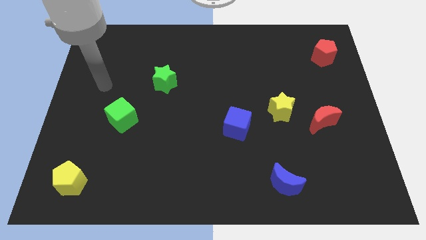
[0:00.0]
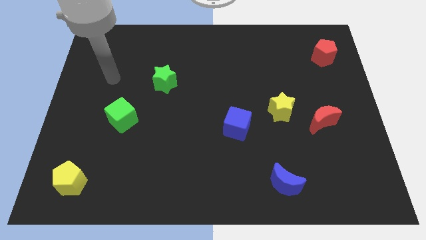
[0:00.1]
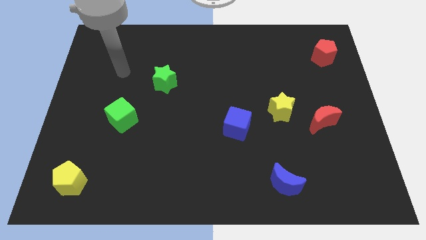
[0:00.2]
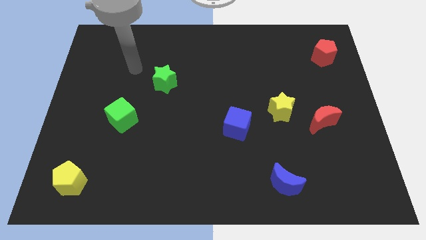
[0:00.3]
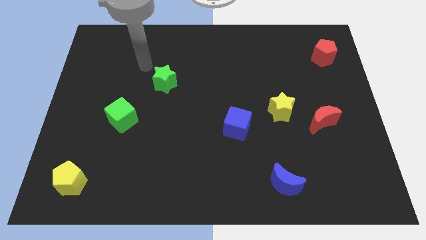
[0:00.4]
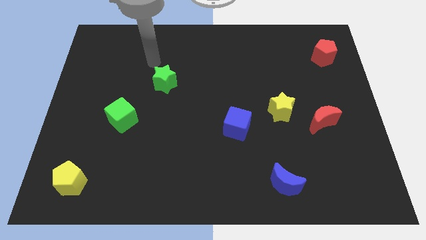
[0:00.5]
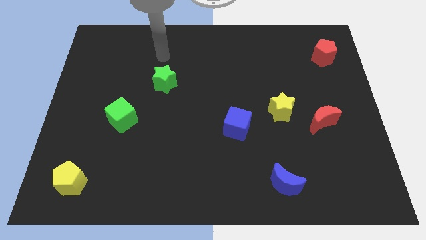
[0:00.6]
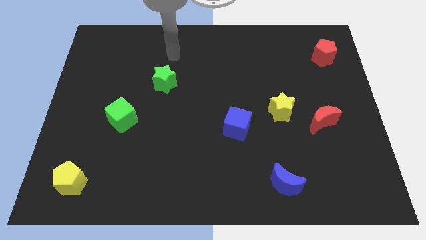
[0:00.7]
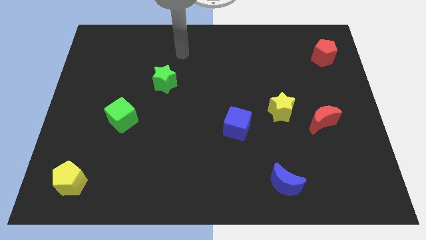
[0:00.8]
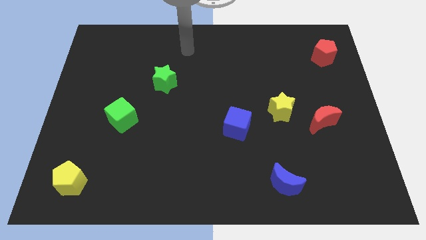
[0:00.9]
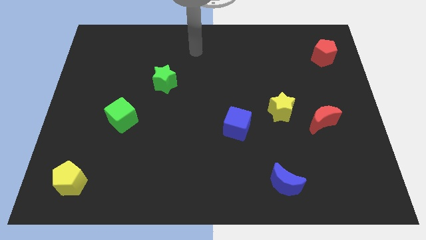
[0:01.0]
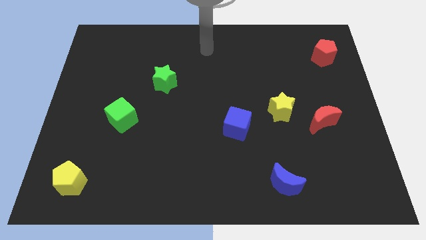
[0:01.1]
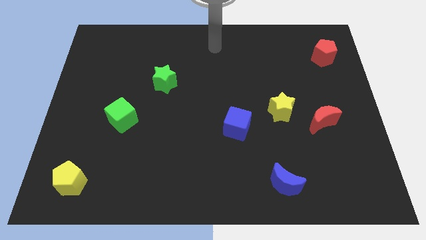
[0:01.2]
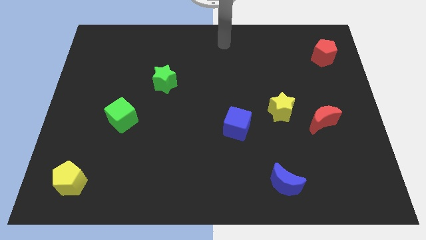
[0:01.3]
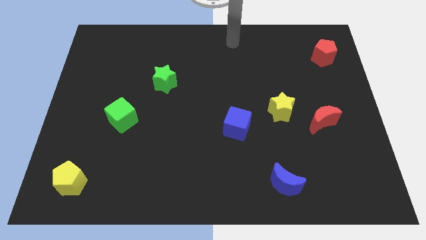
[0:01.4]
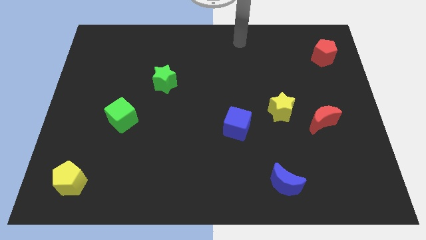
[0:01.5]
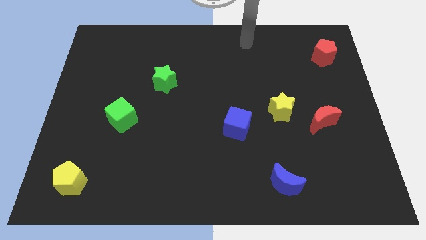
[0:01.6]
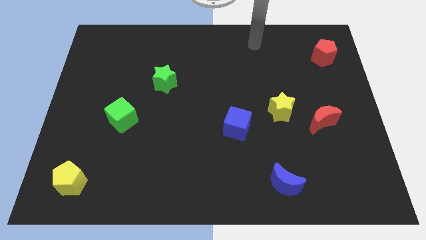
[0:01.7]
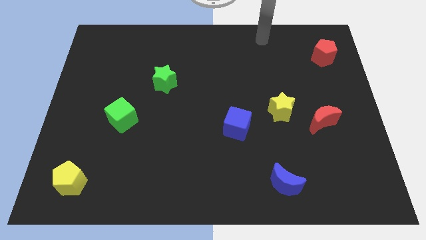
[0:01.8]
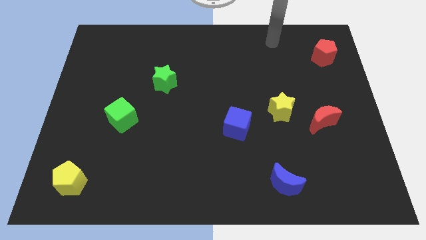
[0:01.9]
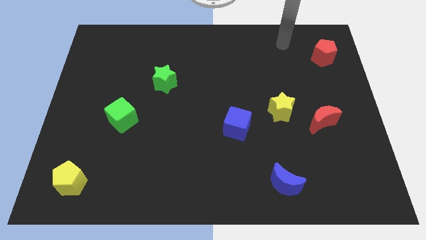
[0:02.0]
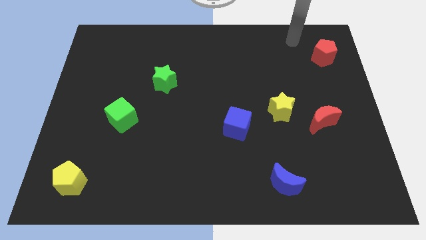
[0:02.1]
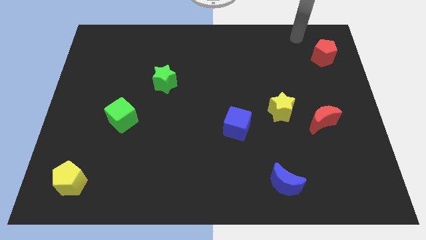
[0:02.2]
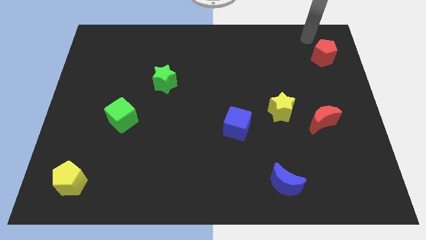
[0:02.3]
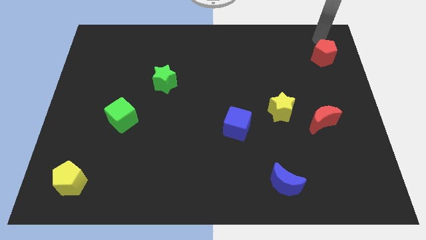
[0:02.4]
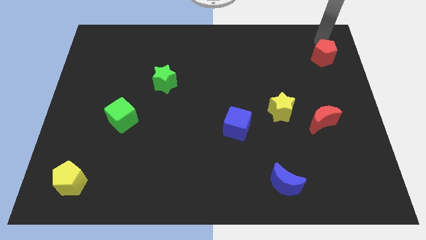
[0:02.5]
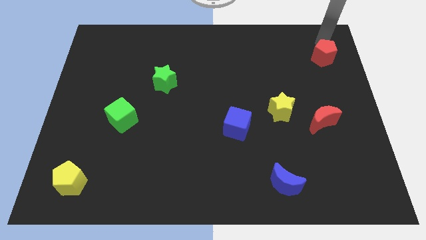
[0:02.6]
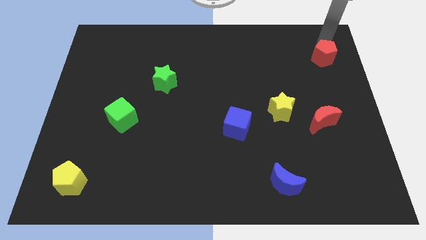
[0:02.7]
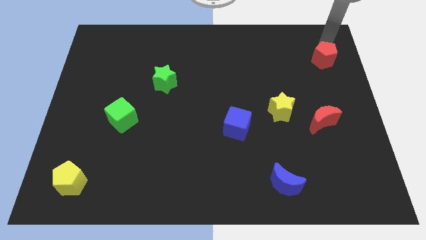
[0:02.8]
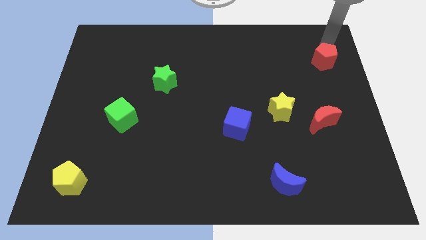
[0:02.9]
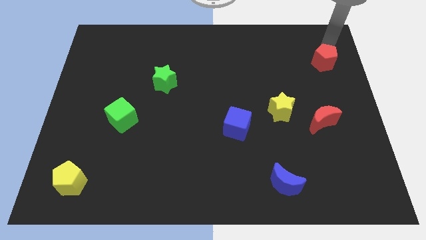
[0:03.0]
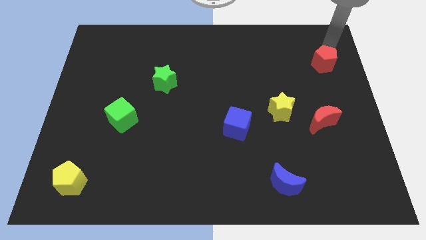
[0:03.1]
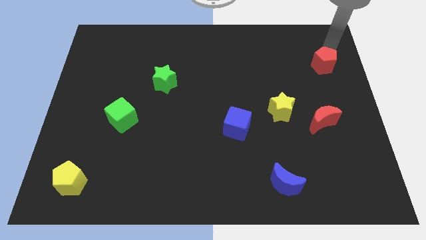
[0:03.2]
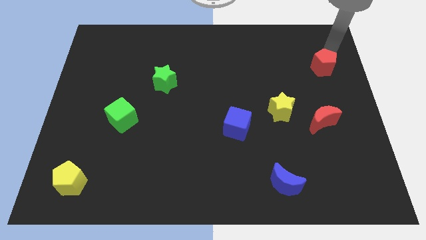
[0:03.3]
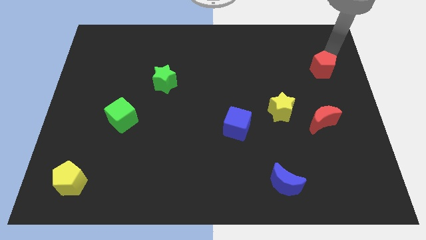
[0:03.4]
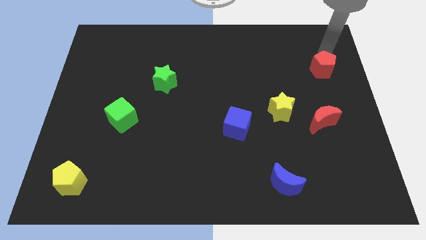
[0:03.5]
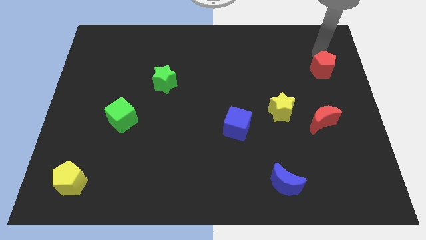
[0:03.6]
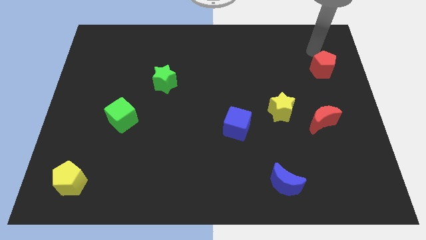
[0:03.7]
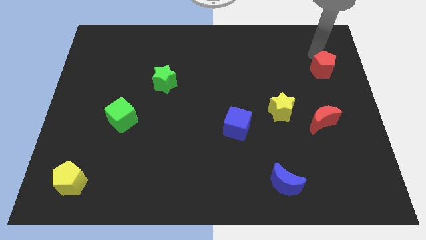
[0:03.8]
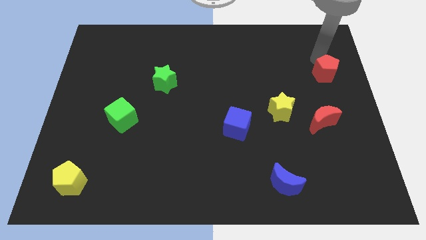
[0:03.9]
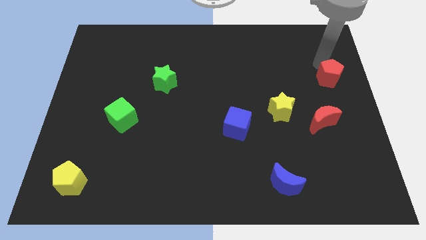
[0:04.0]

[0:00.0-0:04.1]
move the red pentagon somewhat down

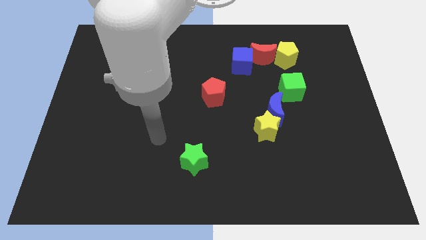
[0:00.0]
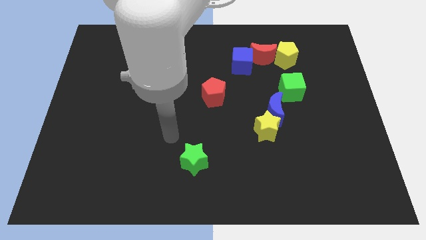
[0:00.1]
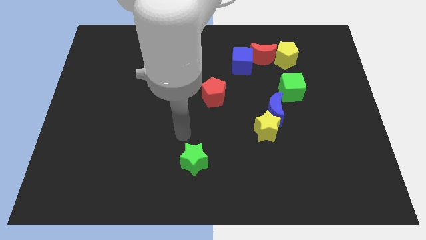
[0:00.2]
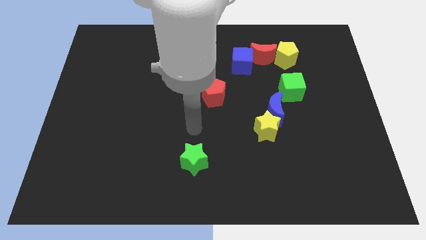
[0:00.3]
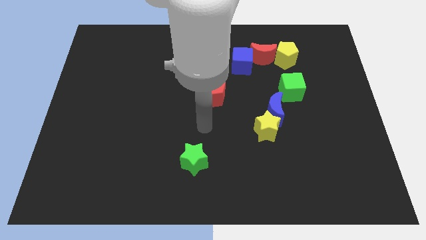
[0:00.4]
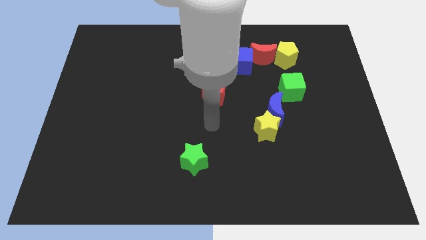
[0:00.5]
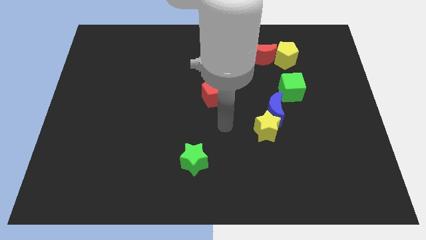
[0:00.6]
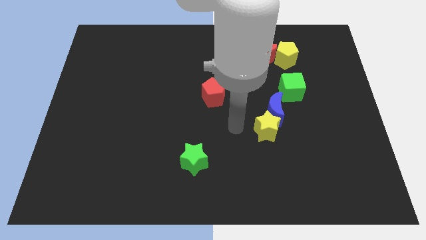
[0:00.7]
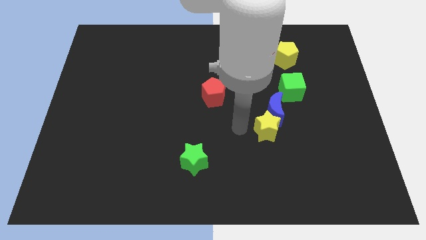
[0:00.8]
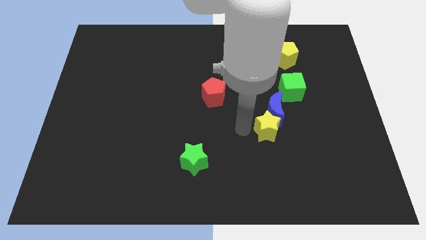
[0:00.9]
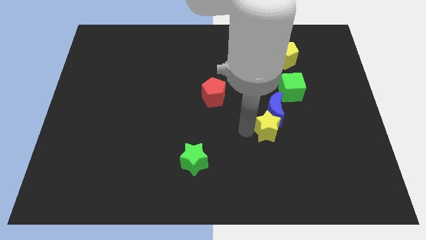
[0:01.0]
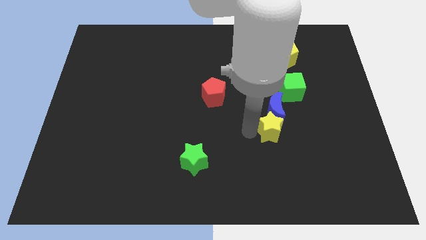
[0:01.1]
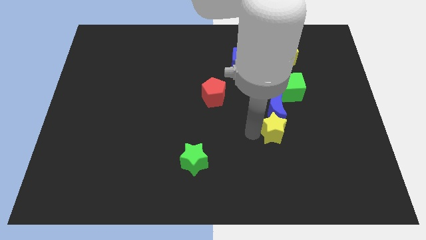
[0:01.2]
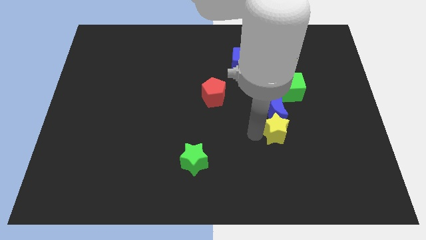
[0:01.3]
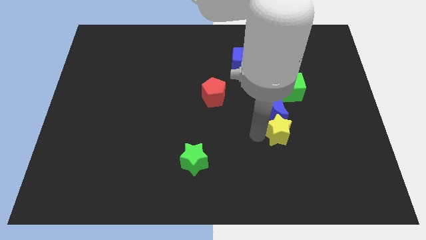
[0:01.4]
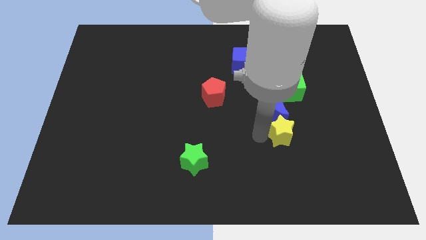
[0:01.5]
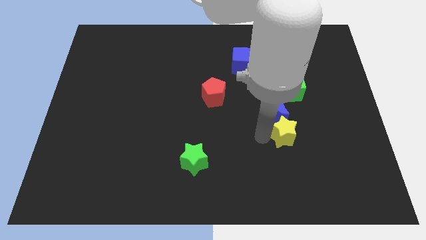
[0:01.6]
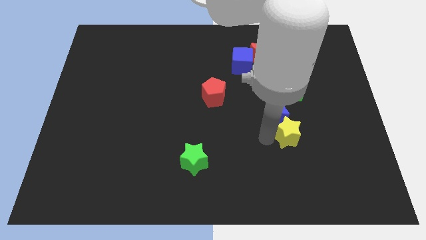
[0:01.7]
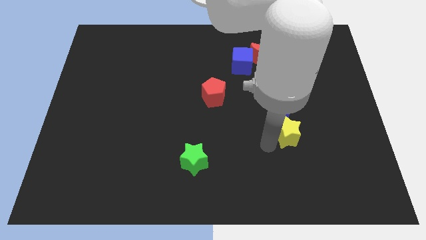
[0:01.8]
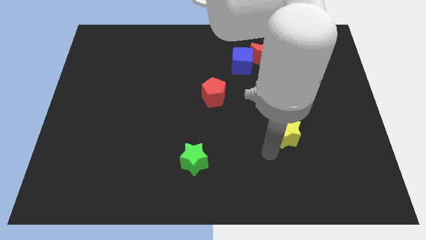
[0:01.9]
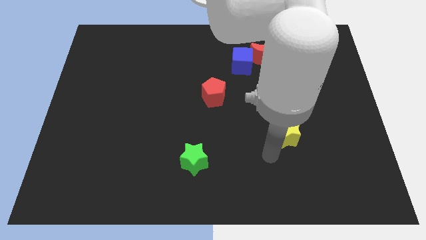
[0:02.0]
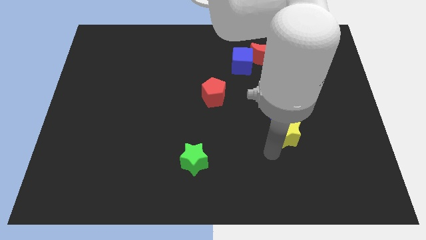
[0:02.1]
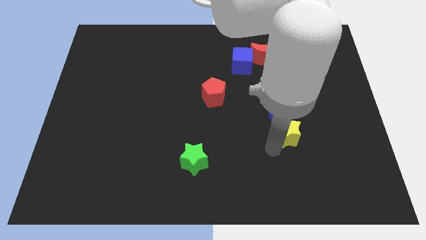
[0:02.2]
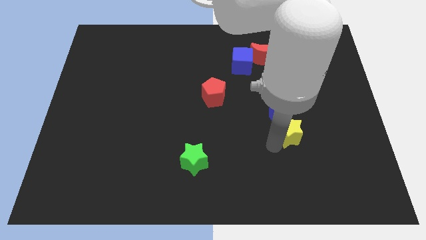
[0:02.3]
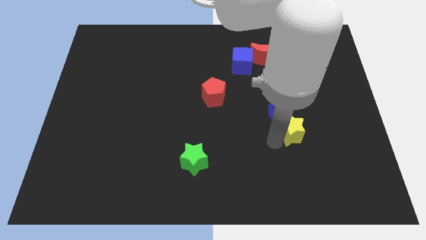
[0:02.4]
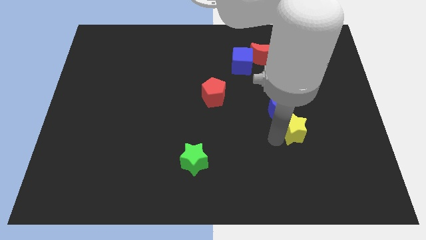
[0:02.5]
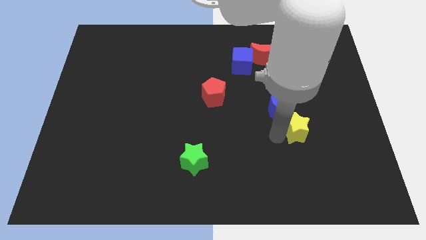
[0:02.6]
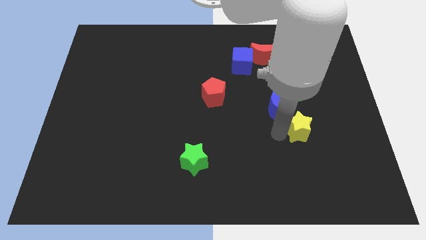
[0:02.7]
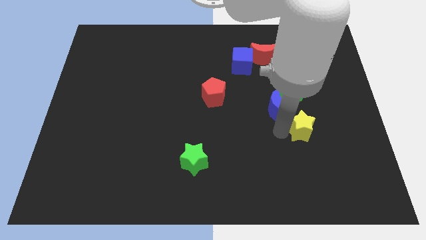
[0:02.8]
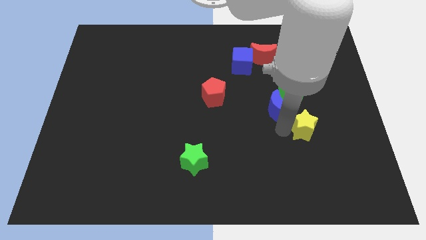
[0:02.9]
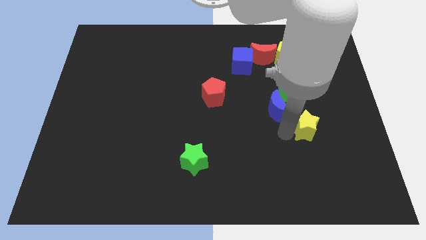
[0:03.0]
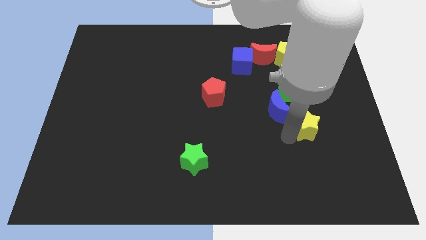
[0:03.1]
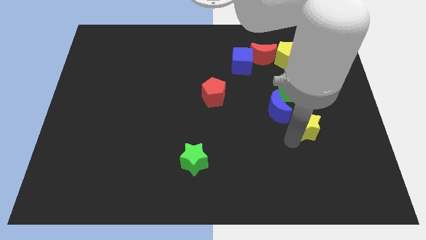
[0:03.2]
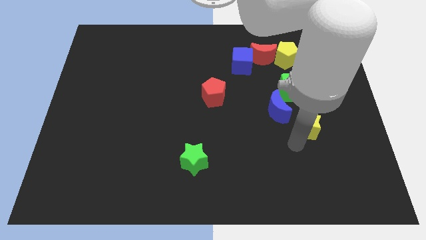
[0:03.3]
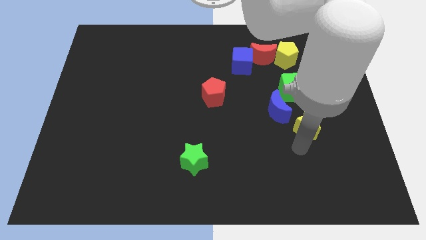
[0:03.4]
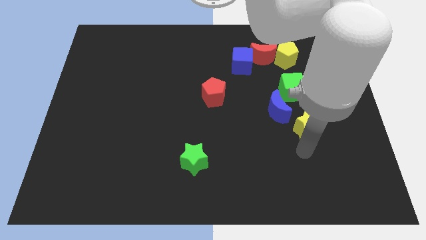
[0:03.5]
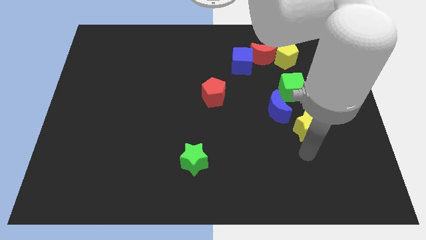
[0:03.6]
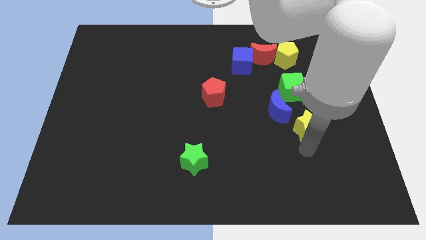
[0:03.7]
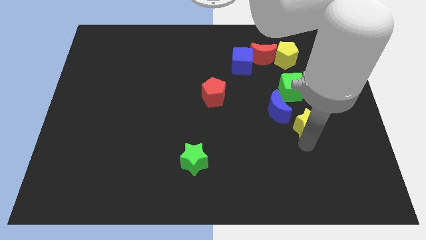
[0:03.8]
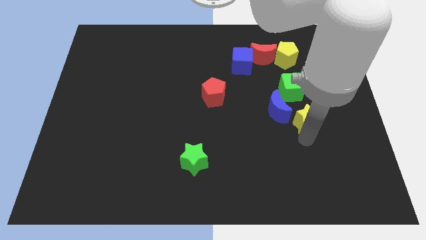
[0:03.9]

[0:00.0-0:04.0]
slightly push the yellow star upwards and then to the right
